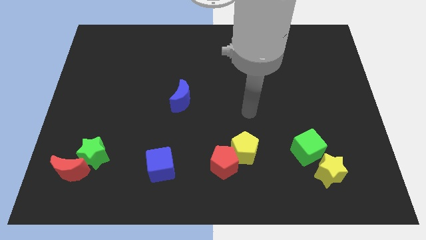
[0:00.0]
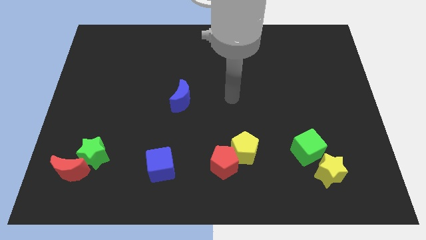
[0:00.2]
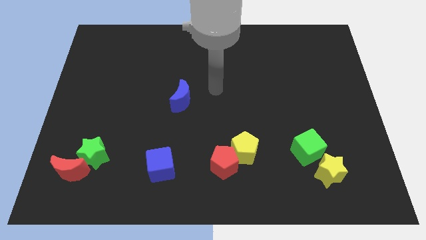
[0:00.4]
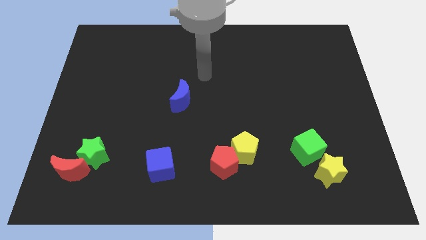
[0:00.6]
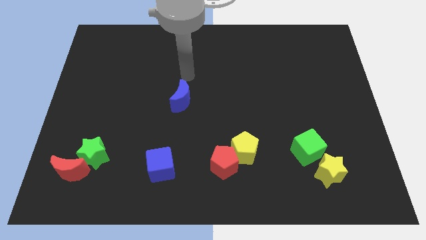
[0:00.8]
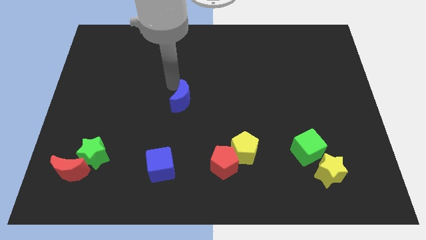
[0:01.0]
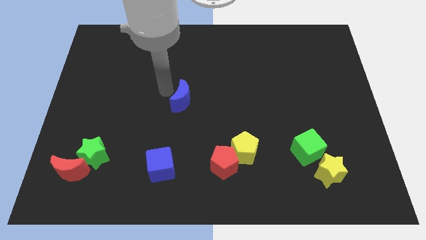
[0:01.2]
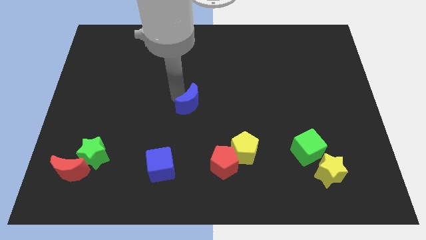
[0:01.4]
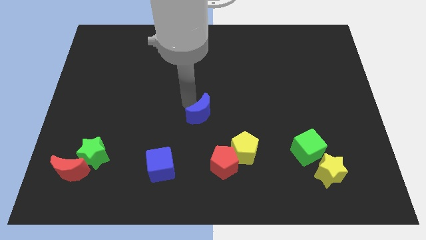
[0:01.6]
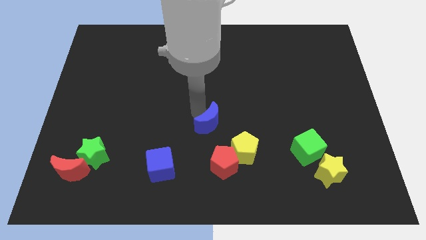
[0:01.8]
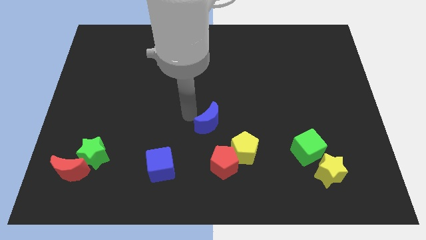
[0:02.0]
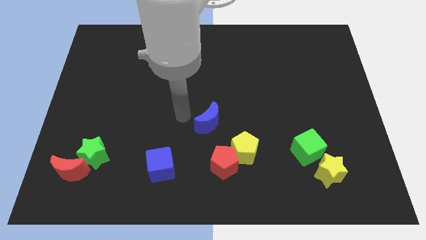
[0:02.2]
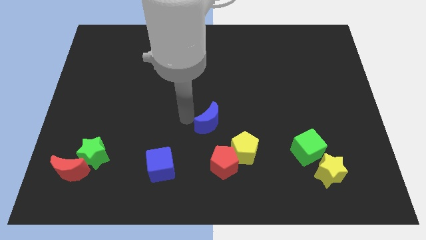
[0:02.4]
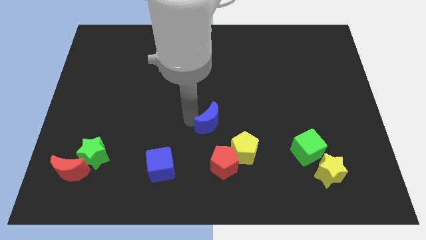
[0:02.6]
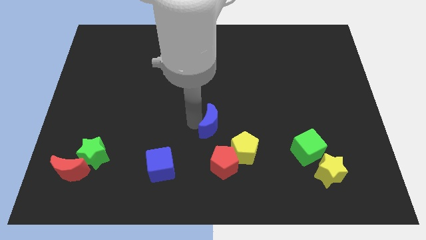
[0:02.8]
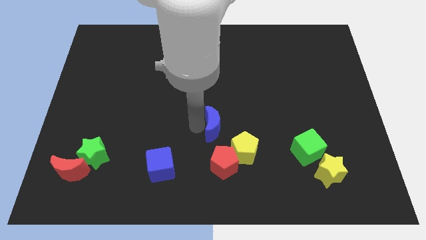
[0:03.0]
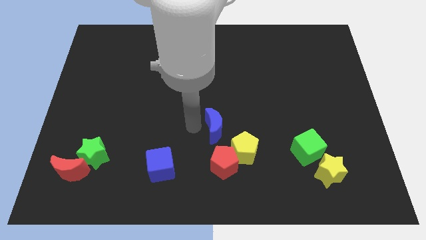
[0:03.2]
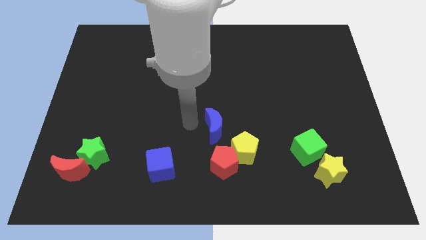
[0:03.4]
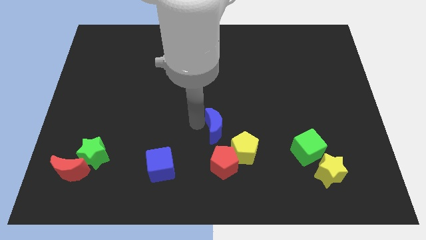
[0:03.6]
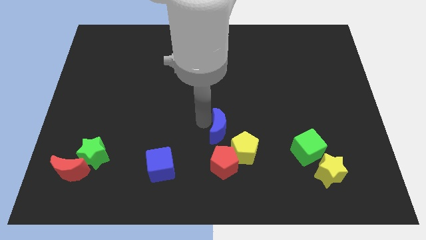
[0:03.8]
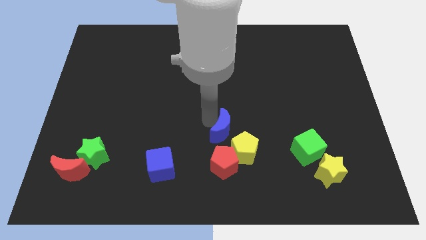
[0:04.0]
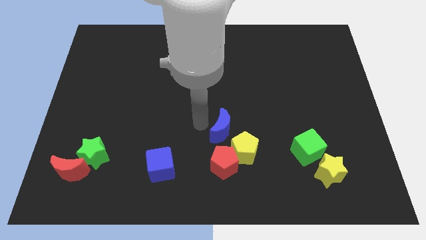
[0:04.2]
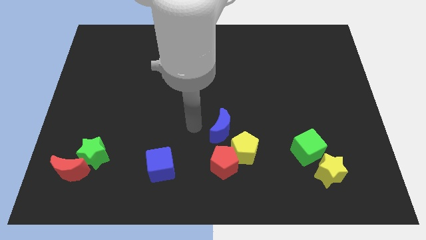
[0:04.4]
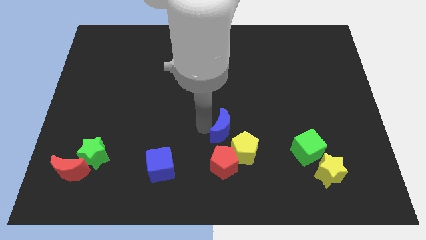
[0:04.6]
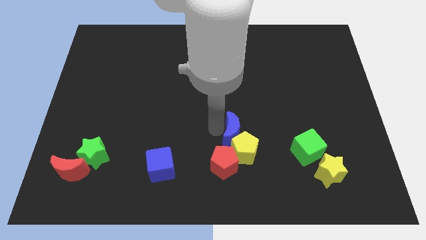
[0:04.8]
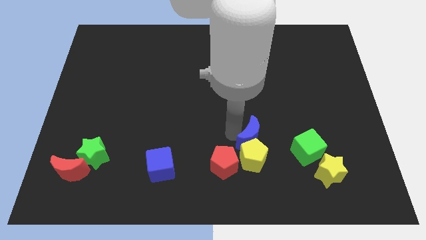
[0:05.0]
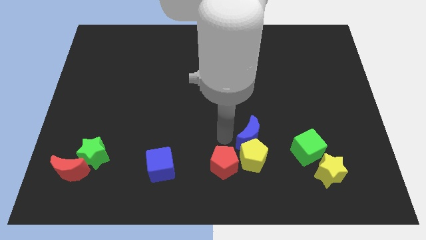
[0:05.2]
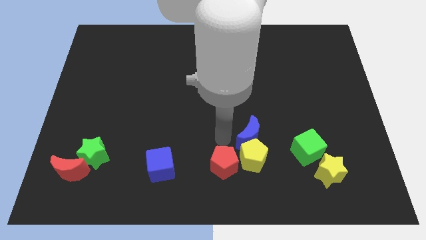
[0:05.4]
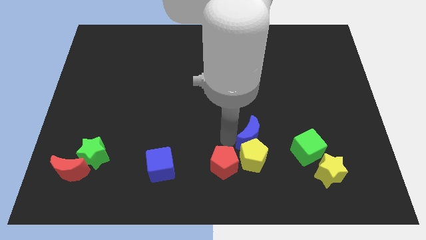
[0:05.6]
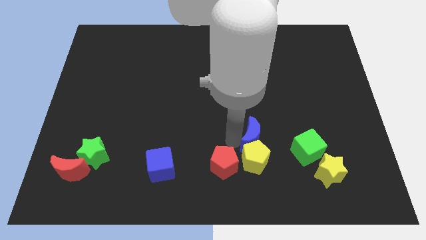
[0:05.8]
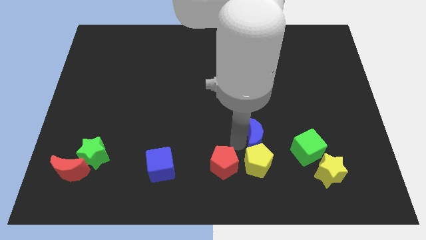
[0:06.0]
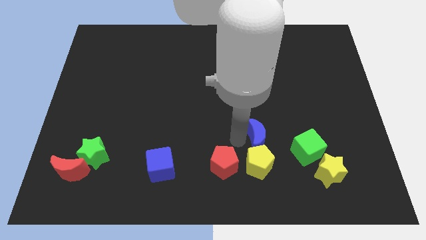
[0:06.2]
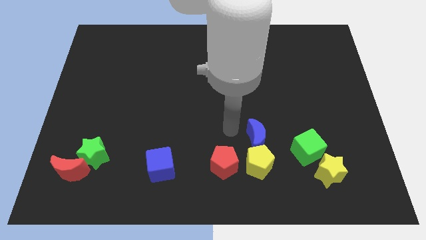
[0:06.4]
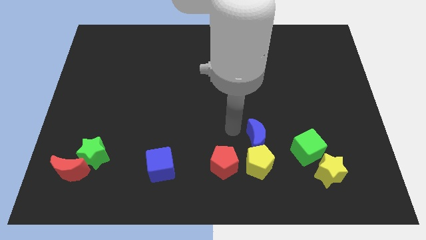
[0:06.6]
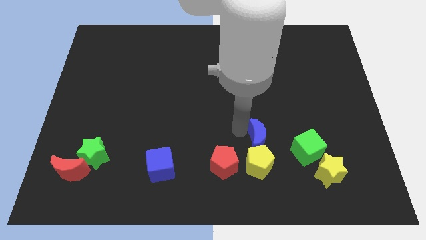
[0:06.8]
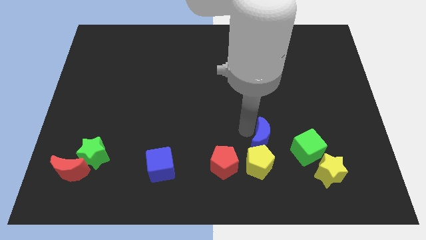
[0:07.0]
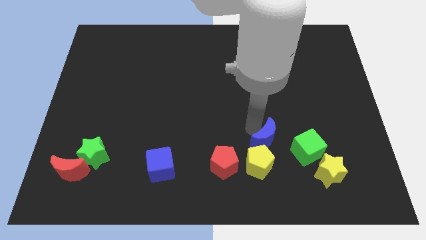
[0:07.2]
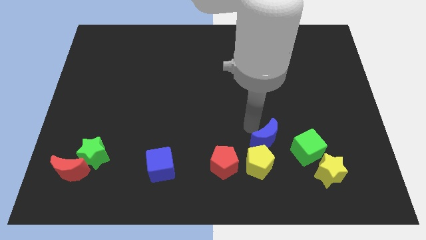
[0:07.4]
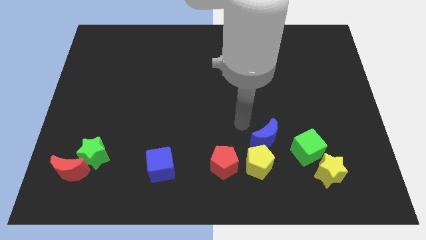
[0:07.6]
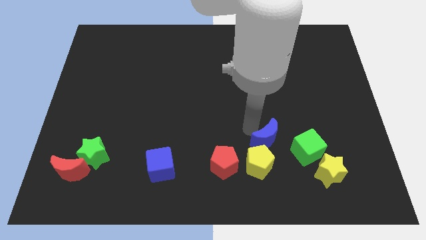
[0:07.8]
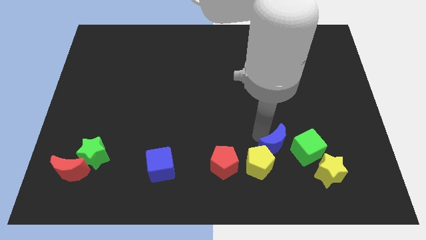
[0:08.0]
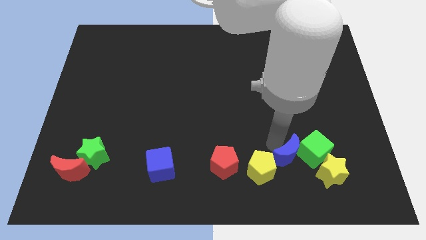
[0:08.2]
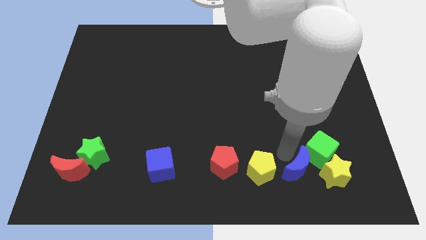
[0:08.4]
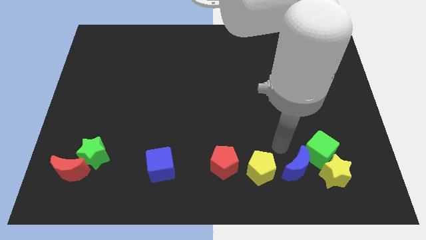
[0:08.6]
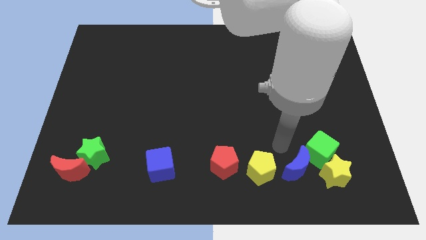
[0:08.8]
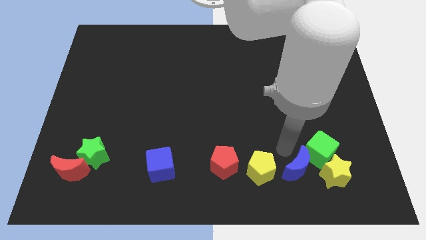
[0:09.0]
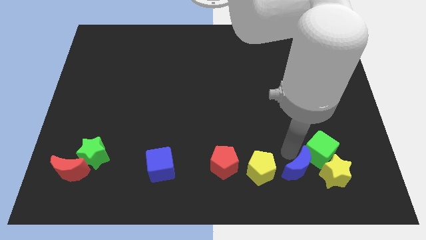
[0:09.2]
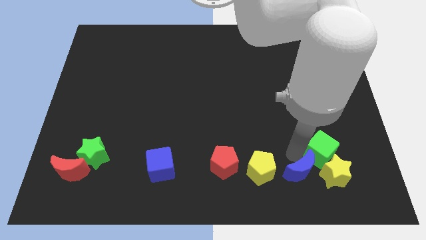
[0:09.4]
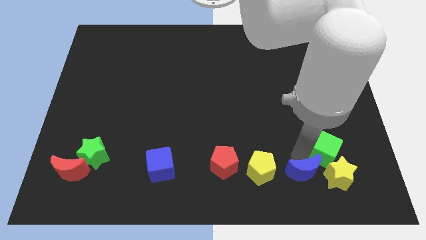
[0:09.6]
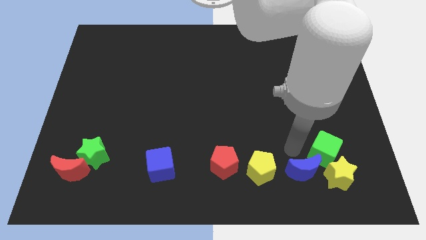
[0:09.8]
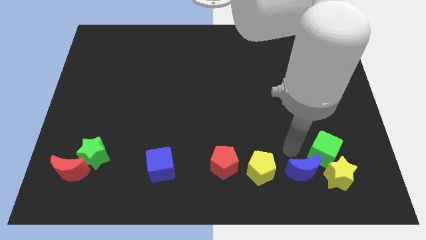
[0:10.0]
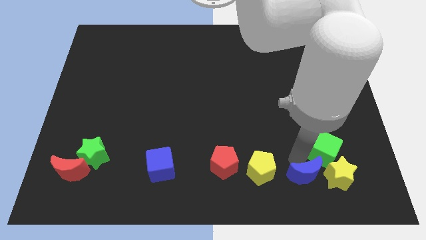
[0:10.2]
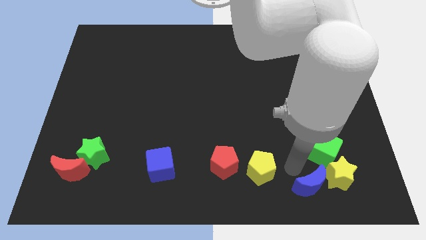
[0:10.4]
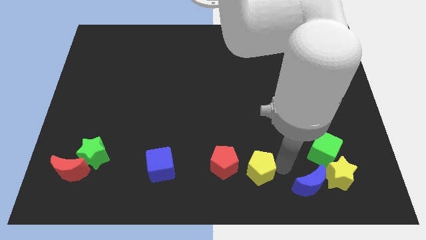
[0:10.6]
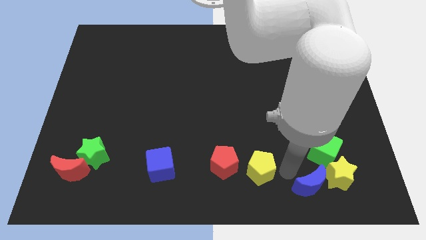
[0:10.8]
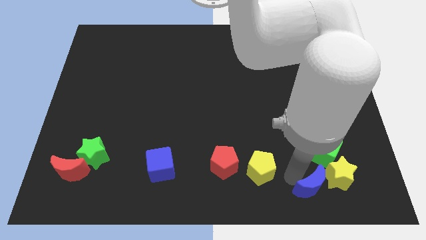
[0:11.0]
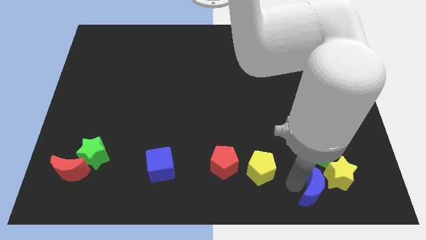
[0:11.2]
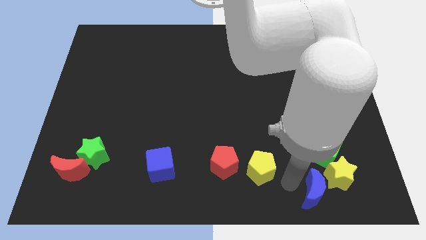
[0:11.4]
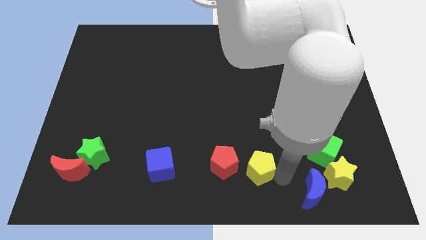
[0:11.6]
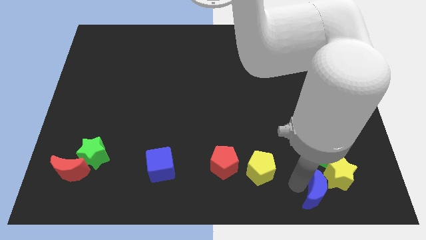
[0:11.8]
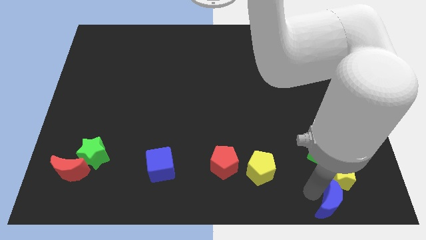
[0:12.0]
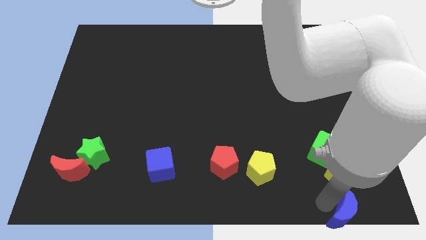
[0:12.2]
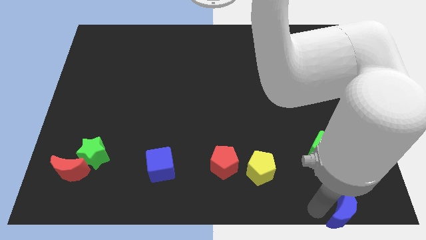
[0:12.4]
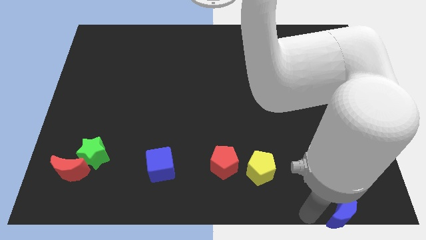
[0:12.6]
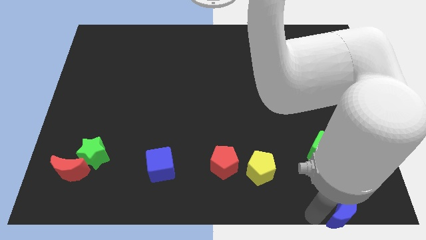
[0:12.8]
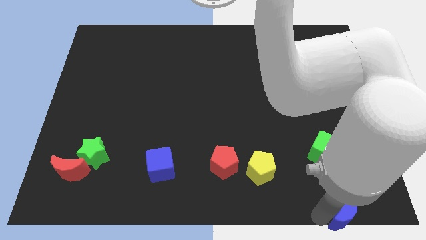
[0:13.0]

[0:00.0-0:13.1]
push the blue moon to the lower right corner
